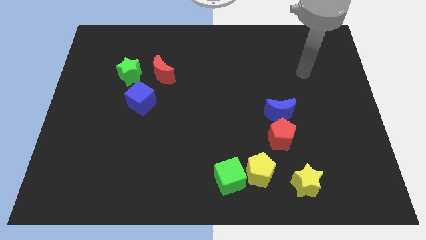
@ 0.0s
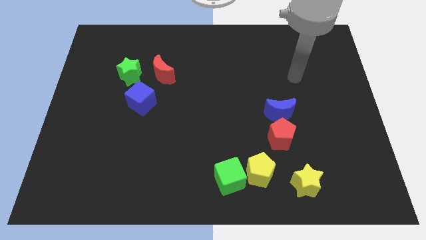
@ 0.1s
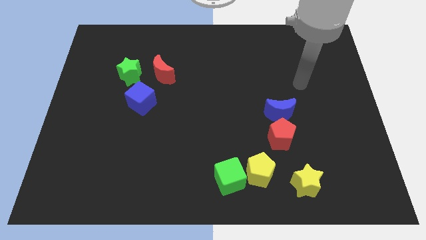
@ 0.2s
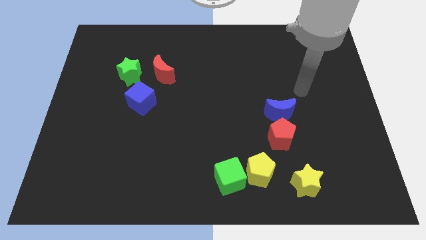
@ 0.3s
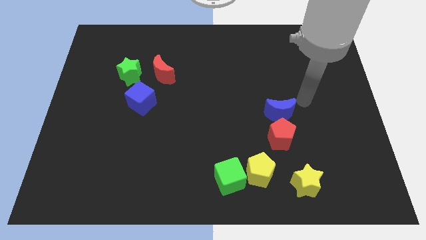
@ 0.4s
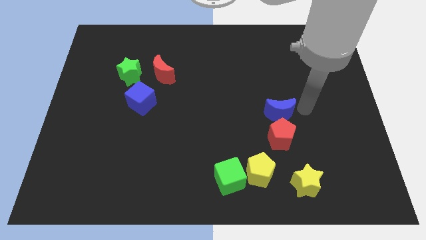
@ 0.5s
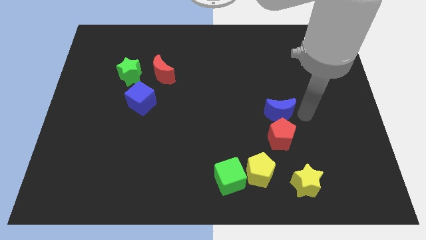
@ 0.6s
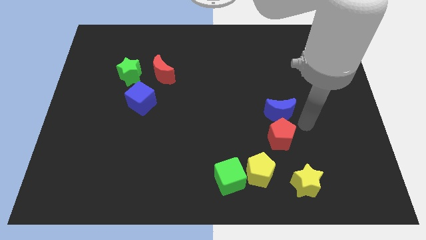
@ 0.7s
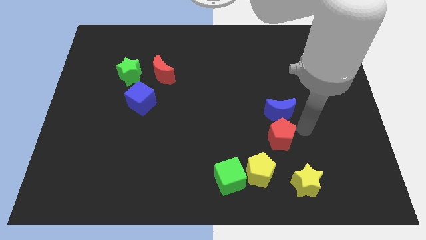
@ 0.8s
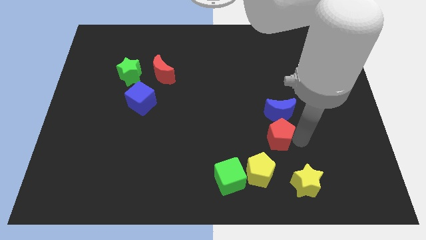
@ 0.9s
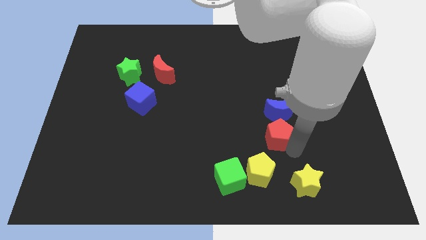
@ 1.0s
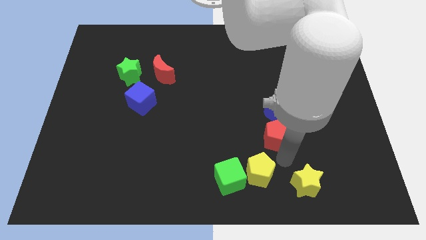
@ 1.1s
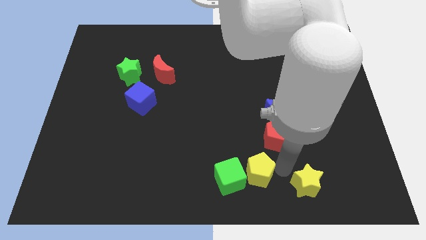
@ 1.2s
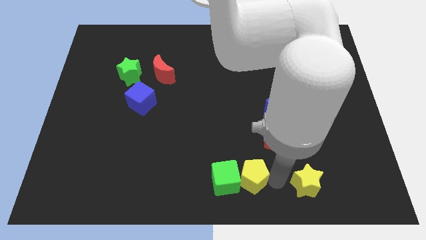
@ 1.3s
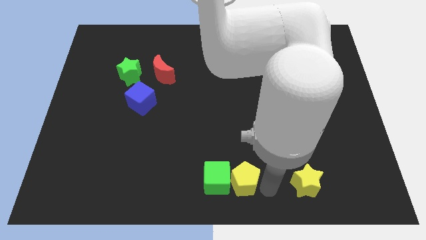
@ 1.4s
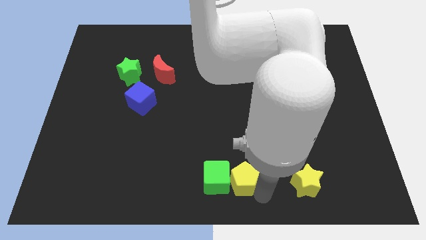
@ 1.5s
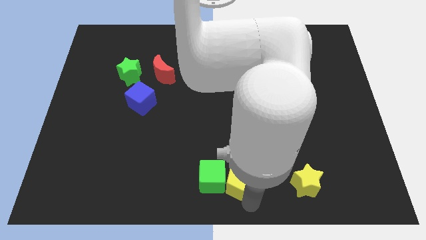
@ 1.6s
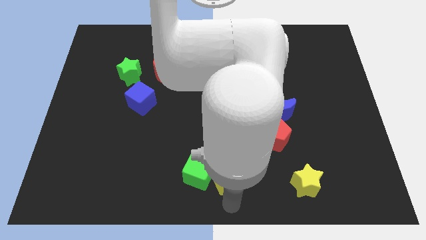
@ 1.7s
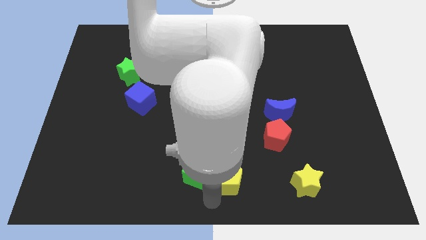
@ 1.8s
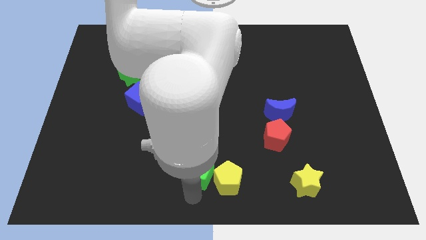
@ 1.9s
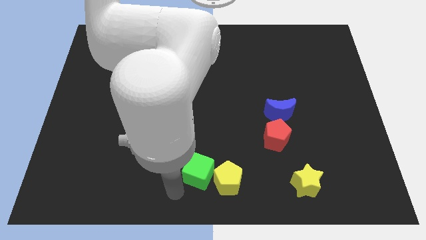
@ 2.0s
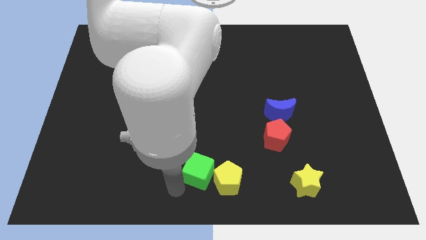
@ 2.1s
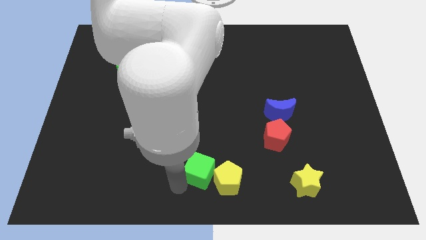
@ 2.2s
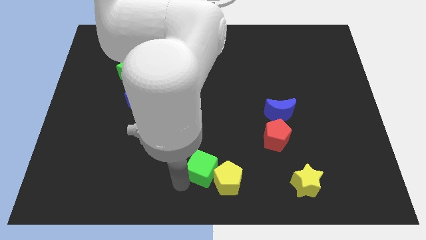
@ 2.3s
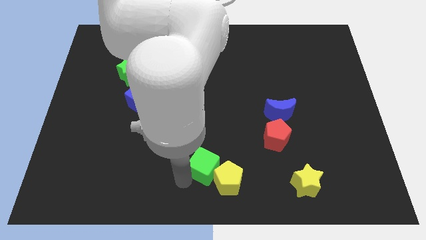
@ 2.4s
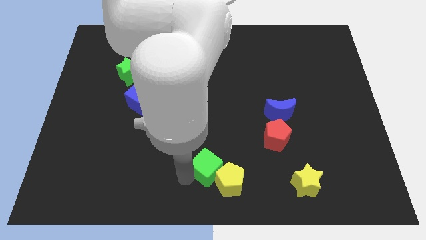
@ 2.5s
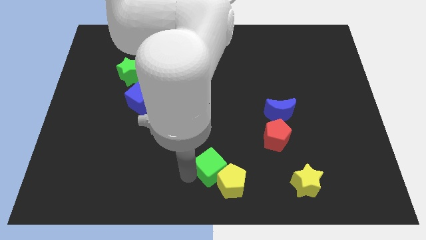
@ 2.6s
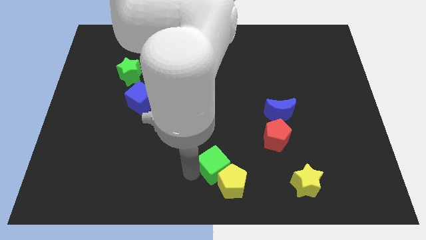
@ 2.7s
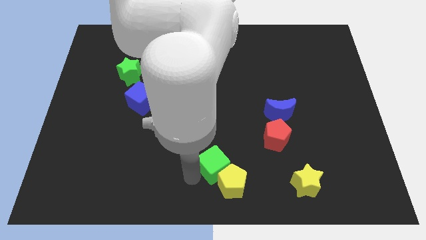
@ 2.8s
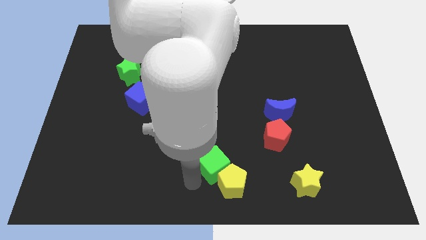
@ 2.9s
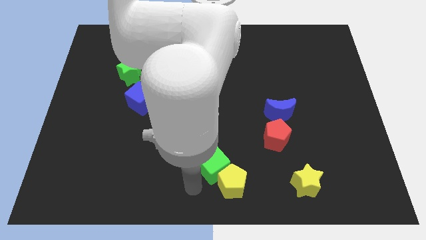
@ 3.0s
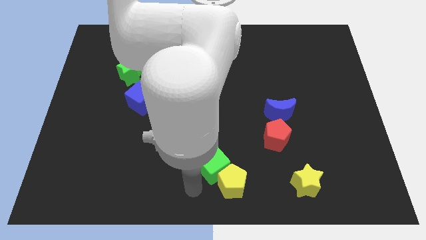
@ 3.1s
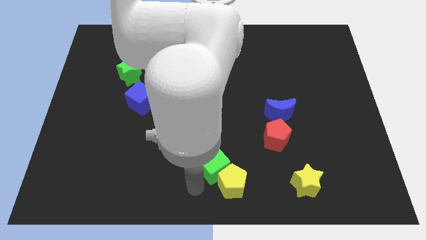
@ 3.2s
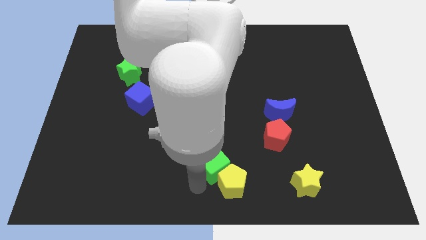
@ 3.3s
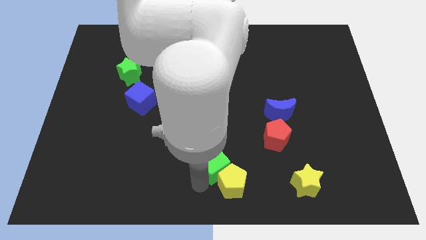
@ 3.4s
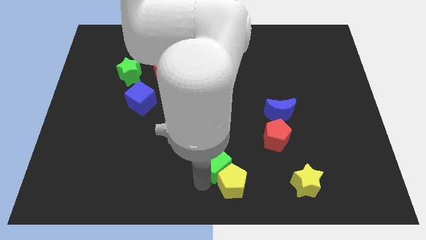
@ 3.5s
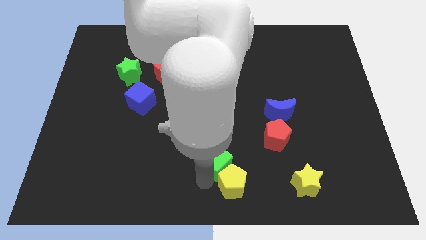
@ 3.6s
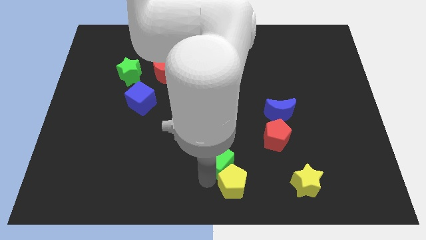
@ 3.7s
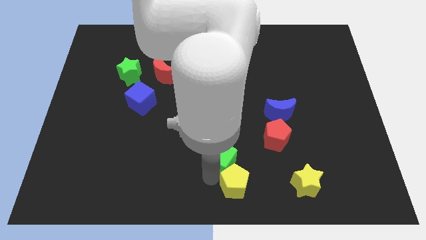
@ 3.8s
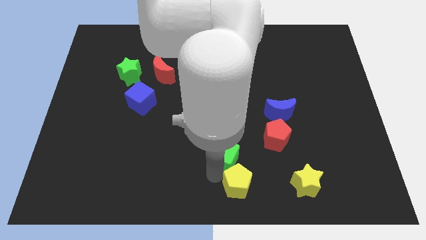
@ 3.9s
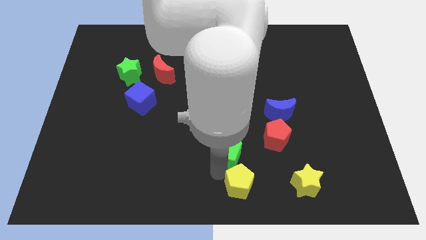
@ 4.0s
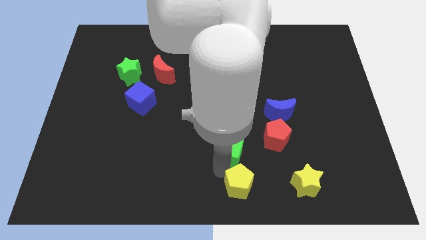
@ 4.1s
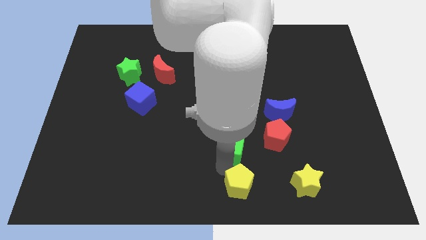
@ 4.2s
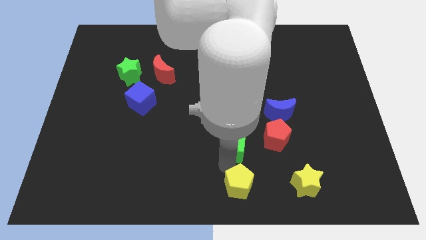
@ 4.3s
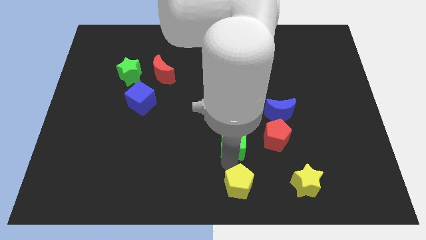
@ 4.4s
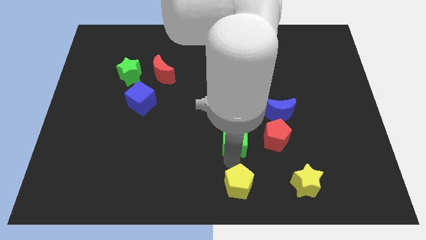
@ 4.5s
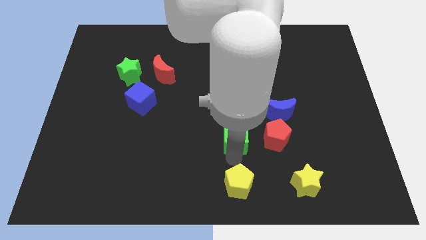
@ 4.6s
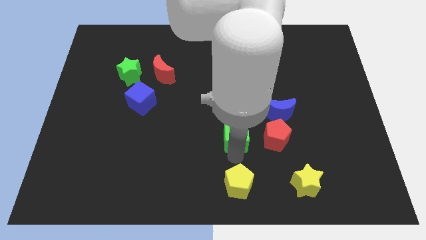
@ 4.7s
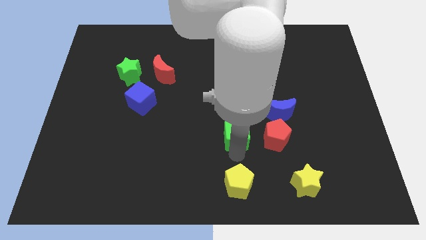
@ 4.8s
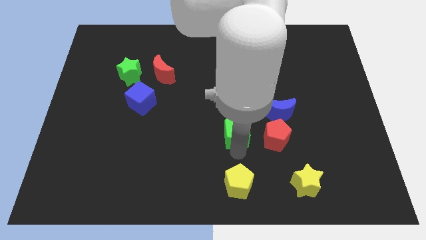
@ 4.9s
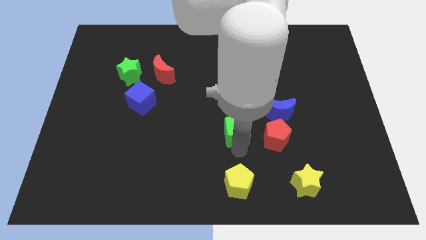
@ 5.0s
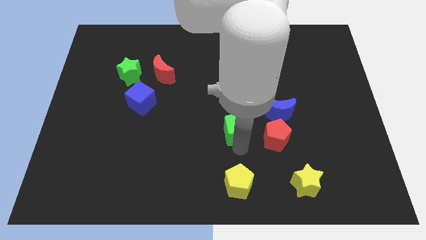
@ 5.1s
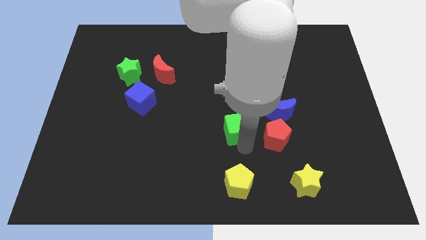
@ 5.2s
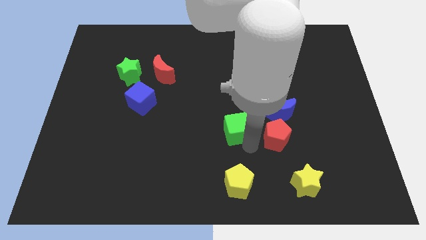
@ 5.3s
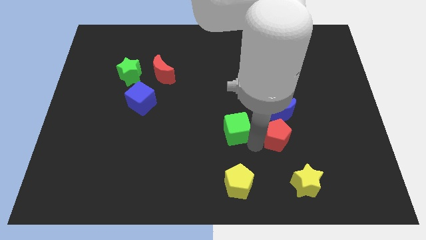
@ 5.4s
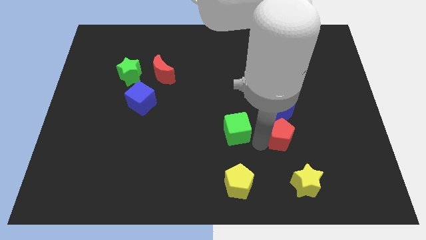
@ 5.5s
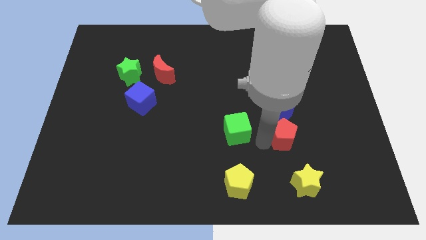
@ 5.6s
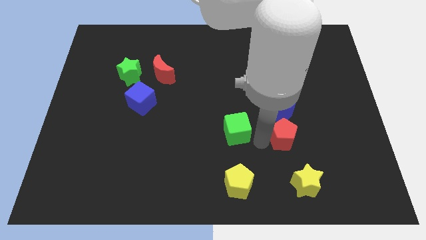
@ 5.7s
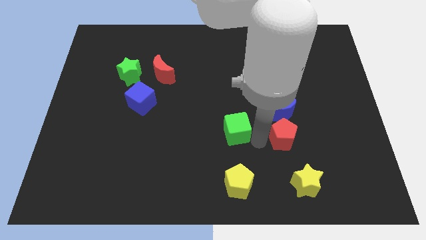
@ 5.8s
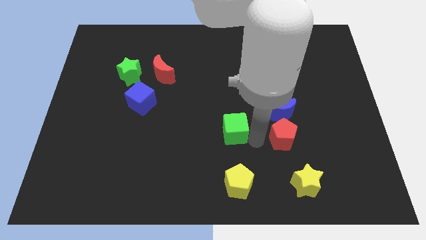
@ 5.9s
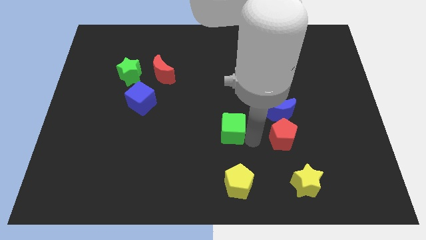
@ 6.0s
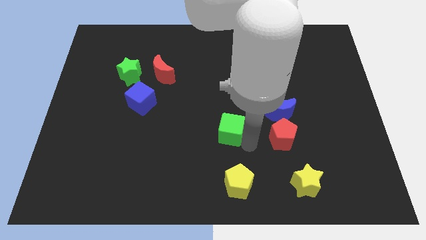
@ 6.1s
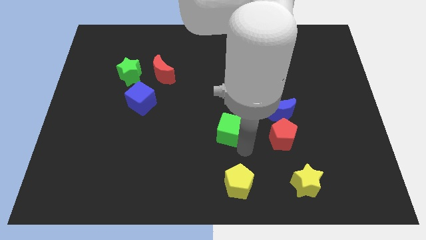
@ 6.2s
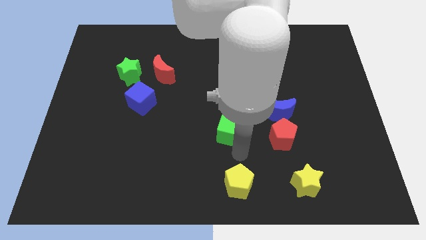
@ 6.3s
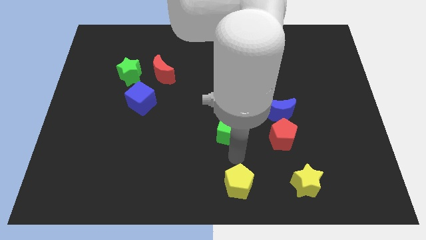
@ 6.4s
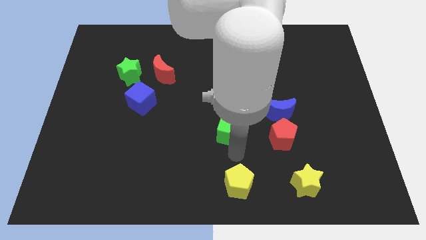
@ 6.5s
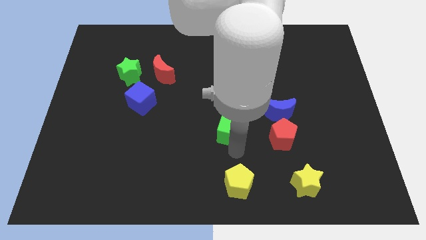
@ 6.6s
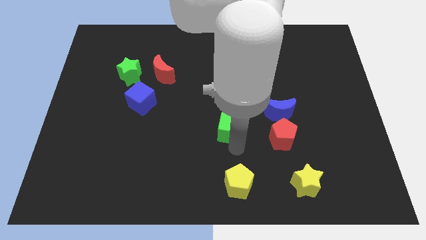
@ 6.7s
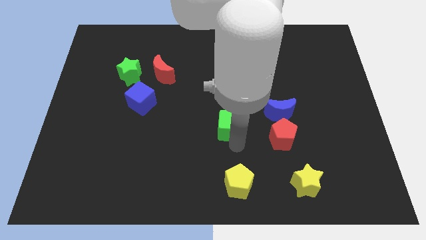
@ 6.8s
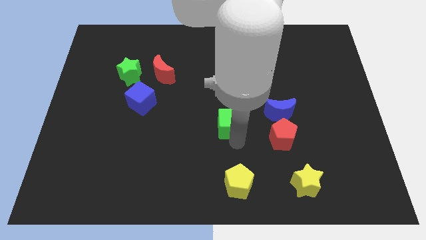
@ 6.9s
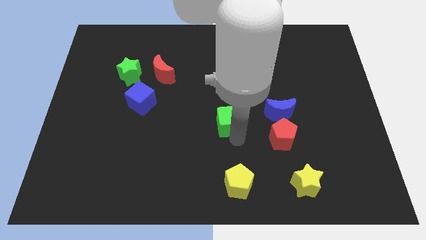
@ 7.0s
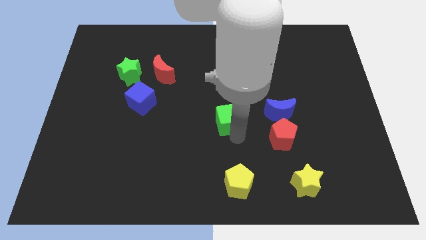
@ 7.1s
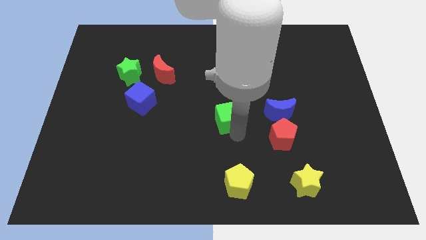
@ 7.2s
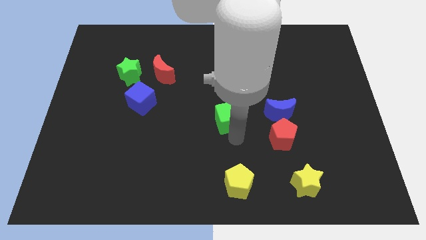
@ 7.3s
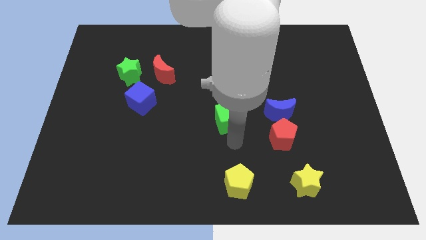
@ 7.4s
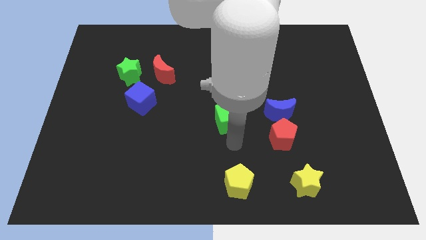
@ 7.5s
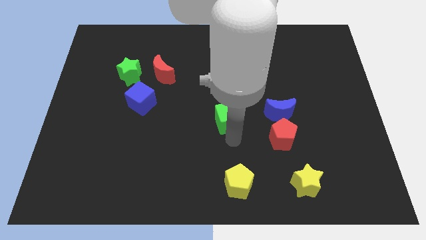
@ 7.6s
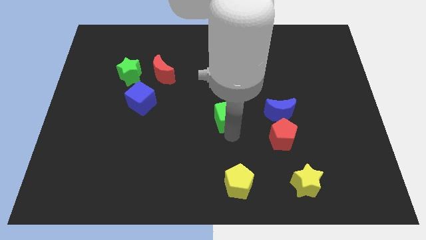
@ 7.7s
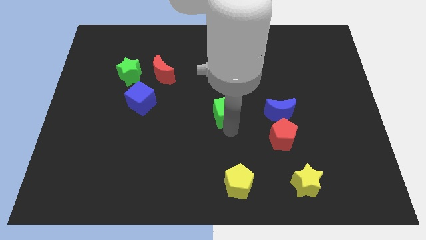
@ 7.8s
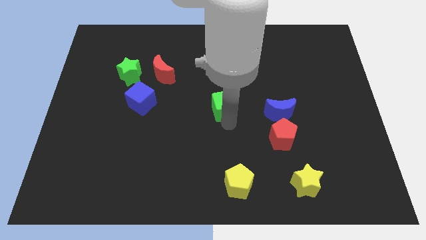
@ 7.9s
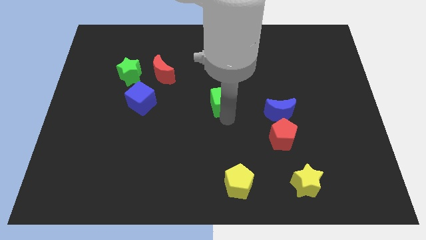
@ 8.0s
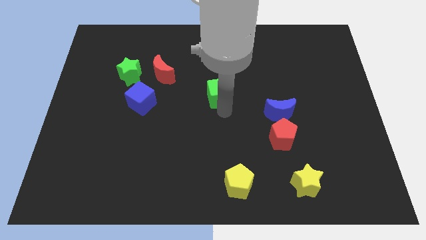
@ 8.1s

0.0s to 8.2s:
move the green cube up

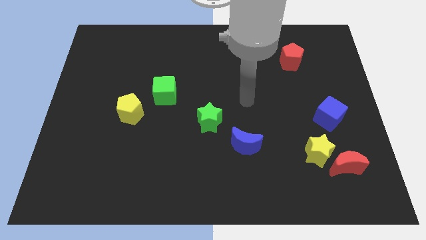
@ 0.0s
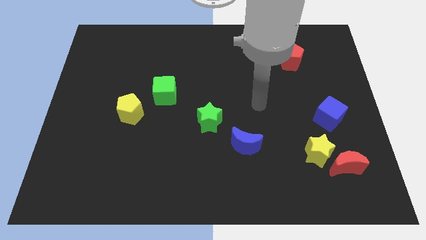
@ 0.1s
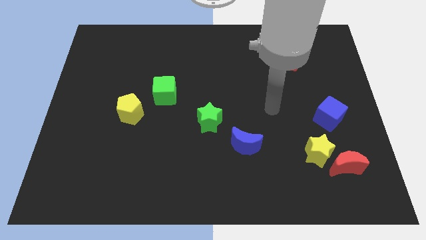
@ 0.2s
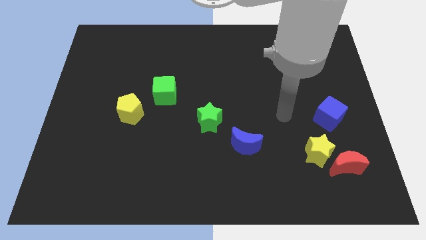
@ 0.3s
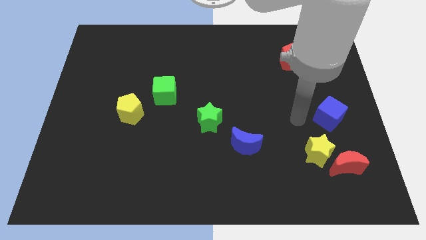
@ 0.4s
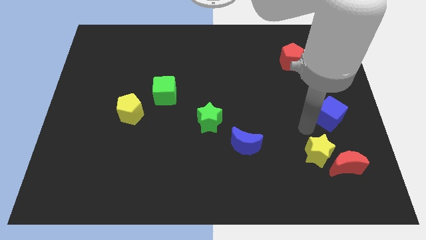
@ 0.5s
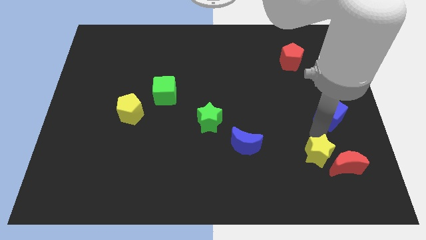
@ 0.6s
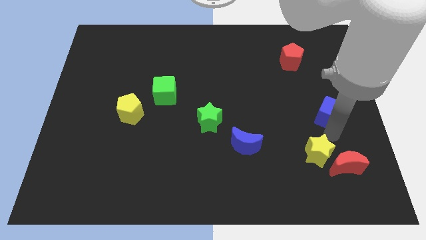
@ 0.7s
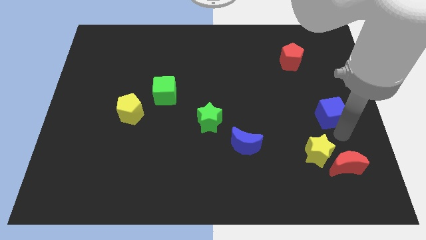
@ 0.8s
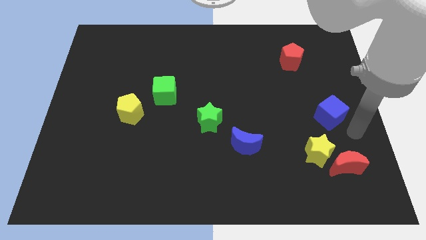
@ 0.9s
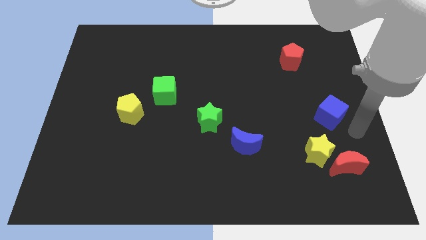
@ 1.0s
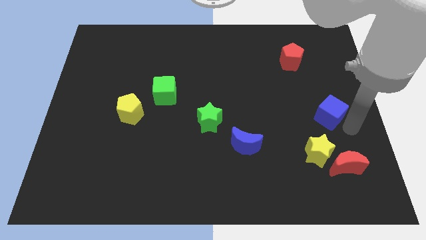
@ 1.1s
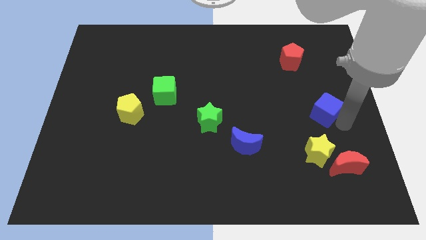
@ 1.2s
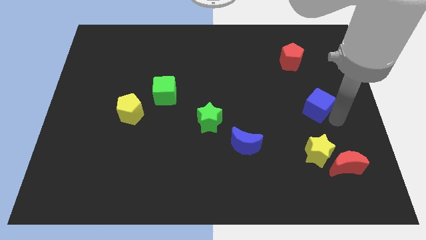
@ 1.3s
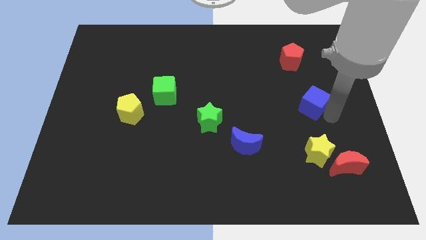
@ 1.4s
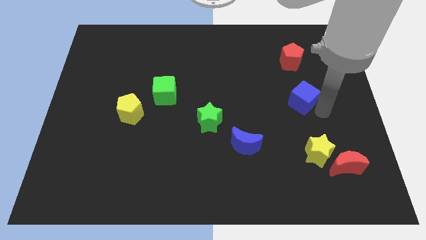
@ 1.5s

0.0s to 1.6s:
push the blue cube somewhat upwards and to the left
